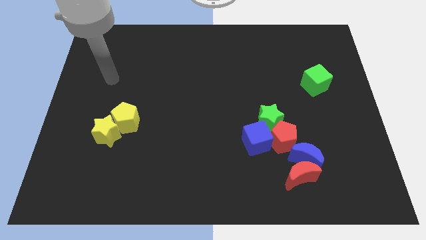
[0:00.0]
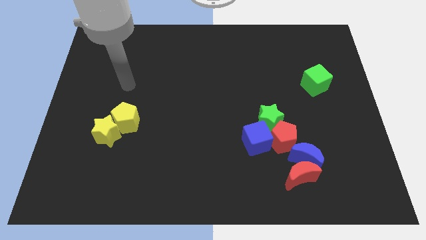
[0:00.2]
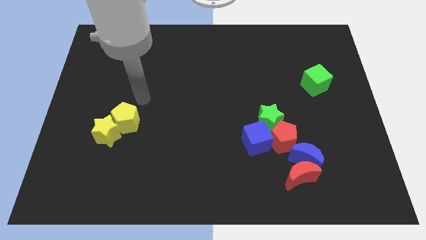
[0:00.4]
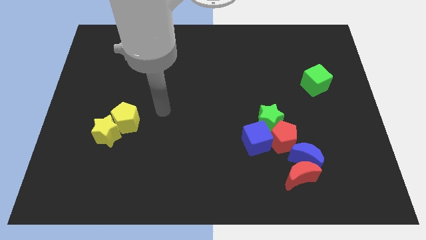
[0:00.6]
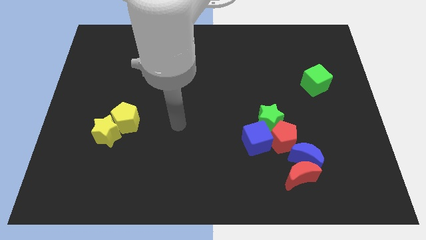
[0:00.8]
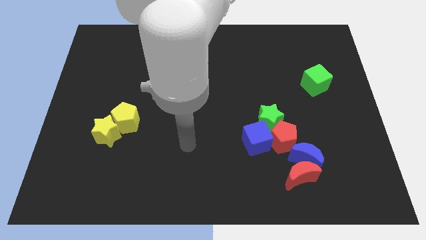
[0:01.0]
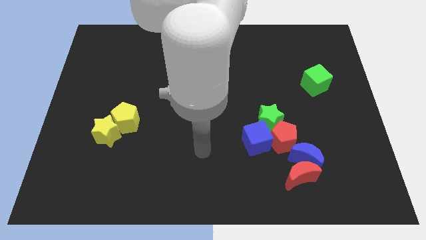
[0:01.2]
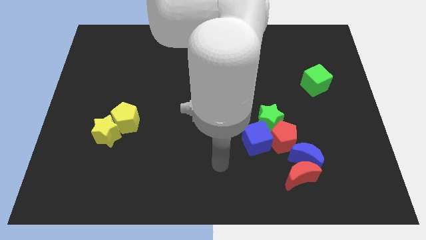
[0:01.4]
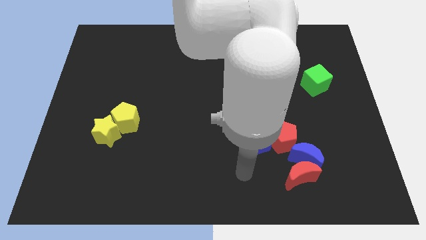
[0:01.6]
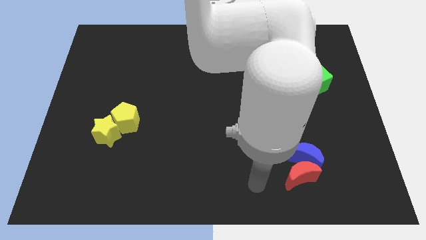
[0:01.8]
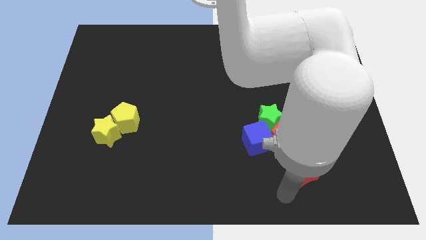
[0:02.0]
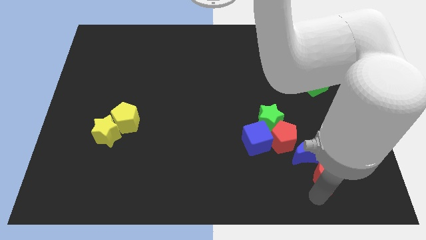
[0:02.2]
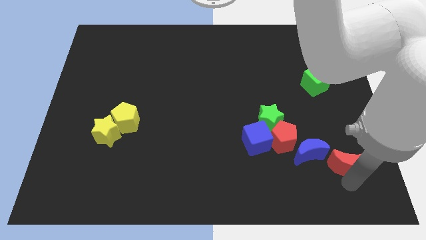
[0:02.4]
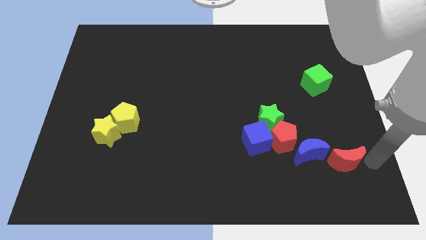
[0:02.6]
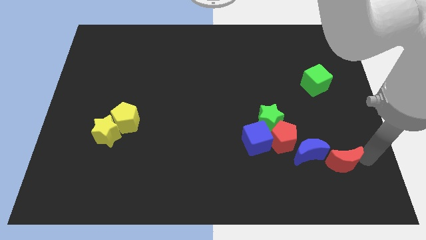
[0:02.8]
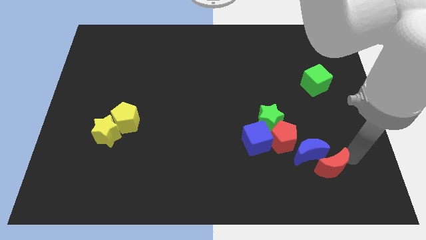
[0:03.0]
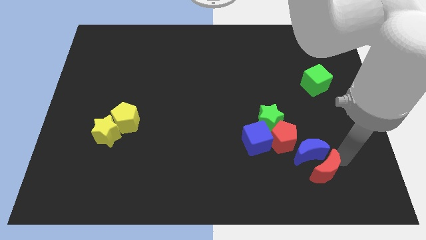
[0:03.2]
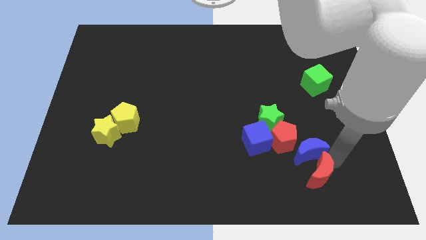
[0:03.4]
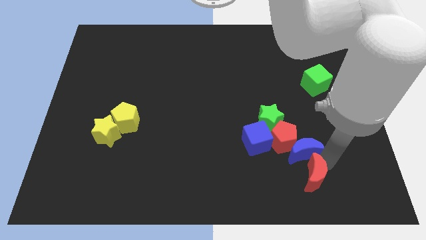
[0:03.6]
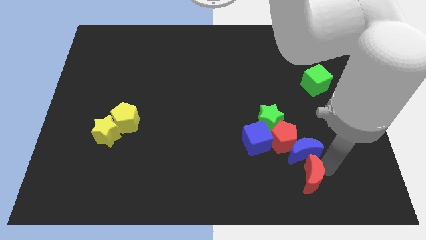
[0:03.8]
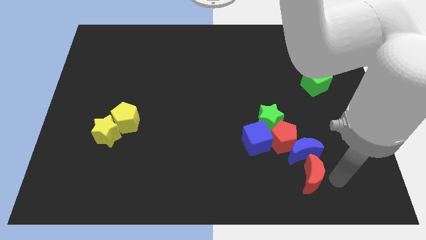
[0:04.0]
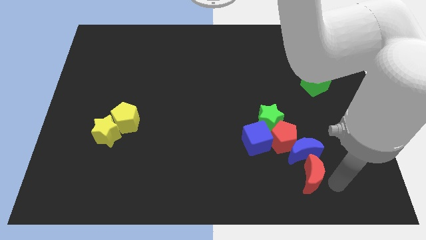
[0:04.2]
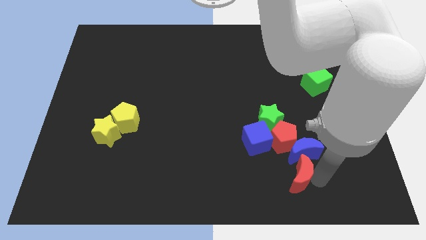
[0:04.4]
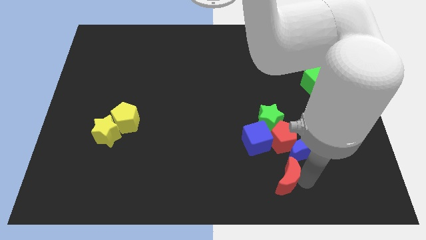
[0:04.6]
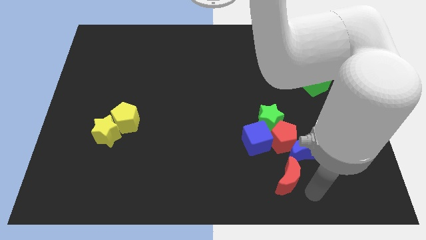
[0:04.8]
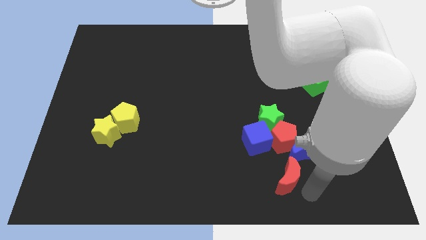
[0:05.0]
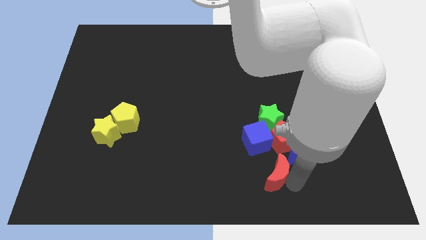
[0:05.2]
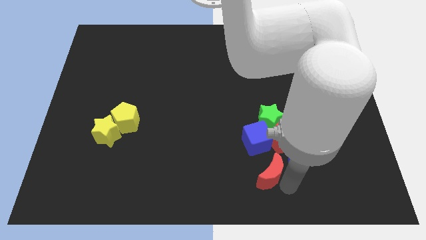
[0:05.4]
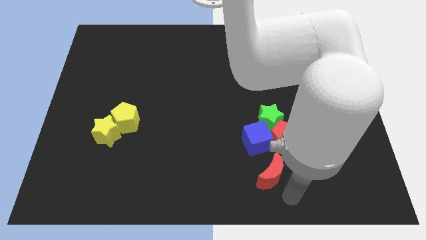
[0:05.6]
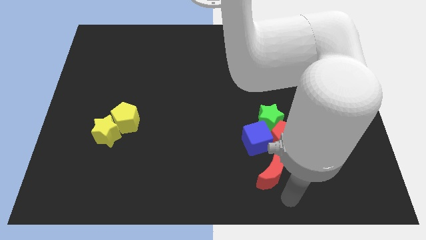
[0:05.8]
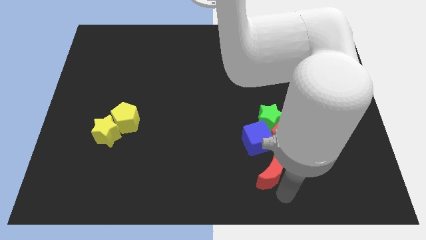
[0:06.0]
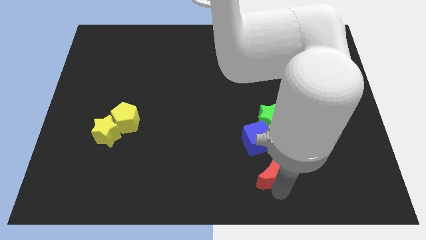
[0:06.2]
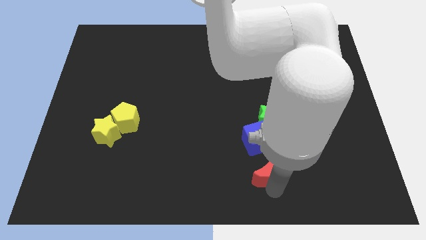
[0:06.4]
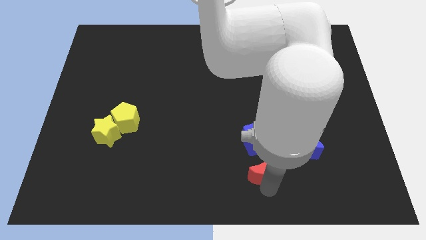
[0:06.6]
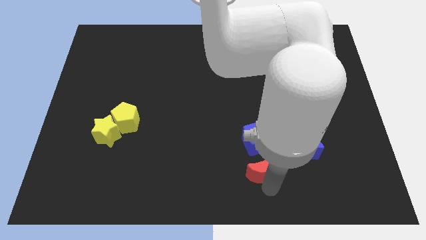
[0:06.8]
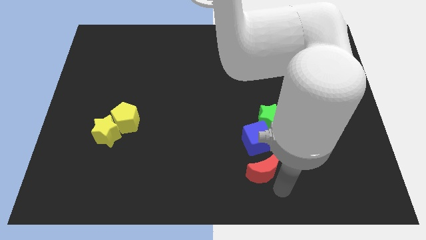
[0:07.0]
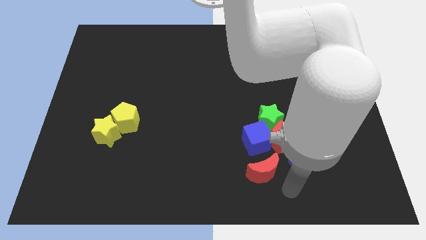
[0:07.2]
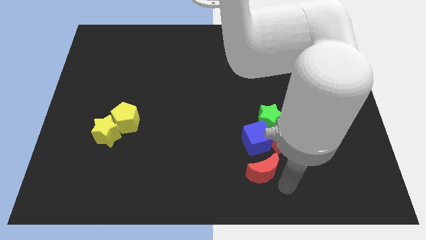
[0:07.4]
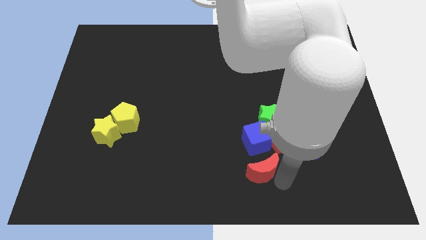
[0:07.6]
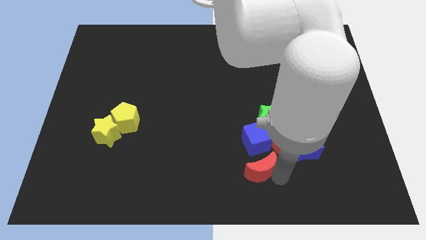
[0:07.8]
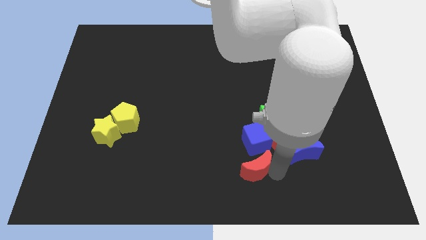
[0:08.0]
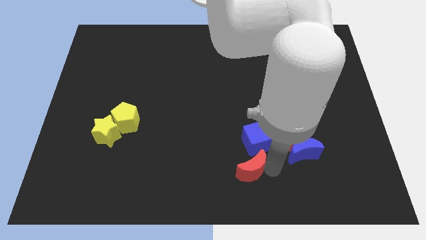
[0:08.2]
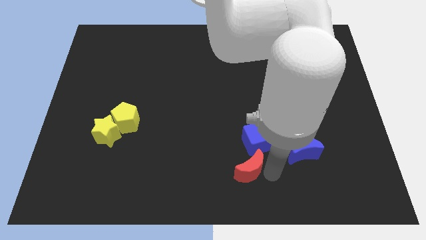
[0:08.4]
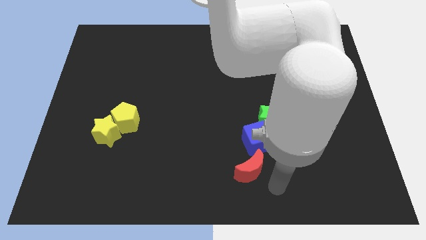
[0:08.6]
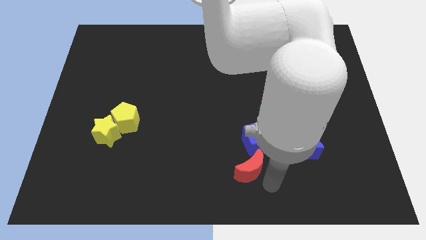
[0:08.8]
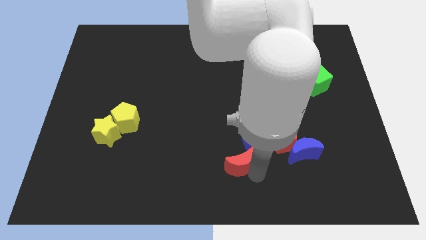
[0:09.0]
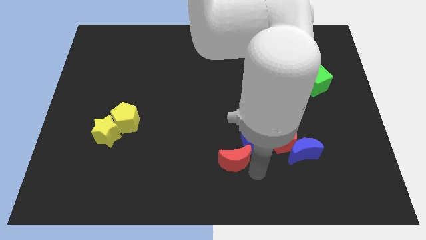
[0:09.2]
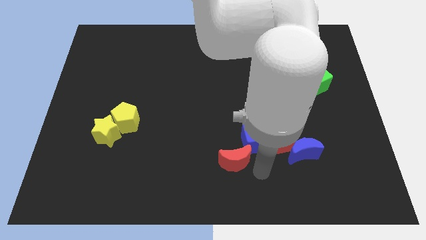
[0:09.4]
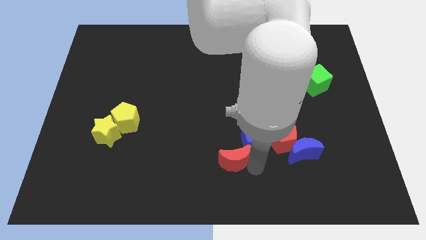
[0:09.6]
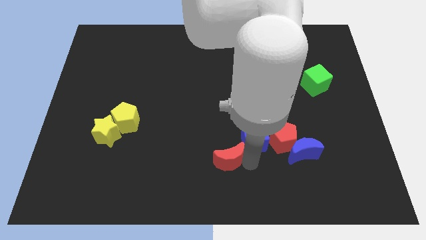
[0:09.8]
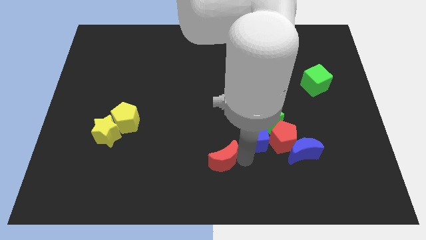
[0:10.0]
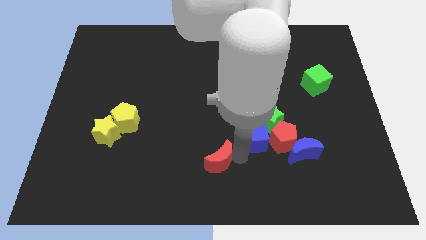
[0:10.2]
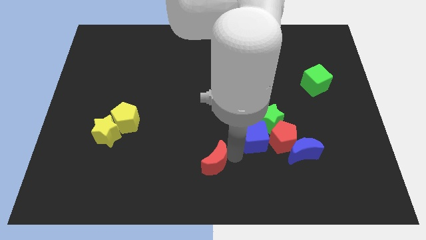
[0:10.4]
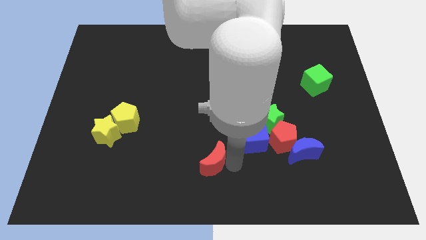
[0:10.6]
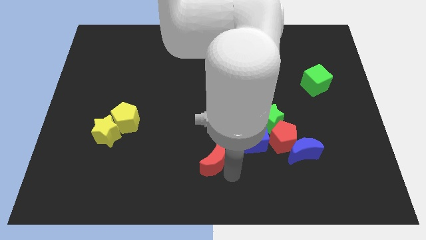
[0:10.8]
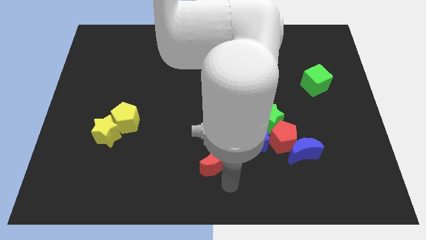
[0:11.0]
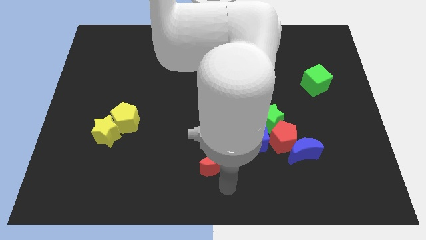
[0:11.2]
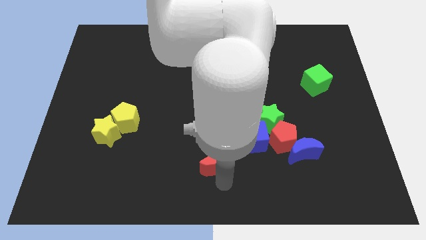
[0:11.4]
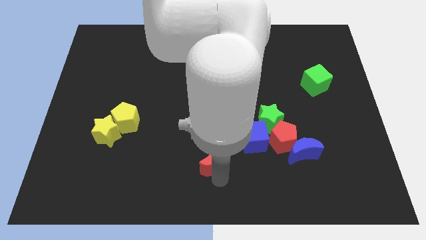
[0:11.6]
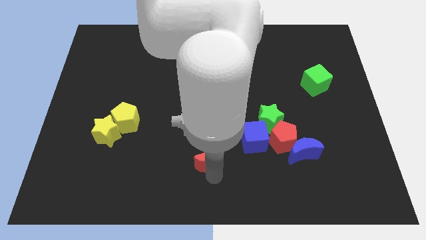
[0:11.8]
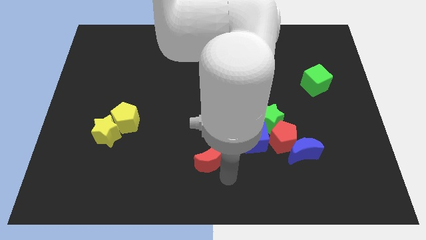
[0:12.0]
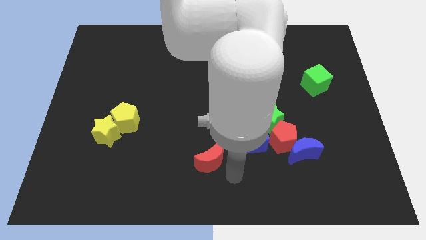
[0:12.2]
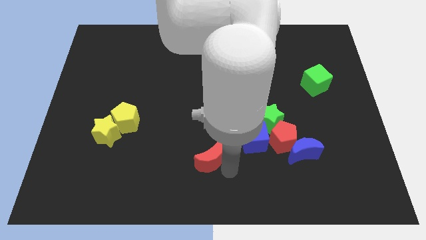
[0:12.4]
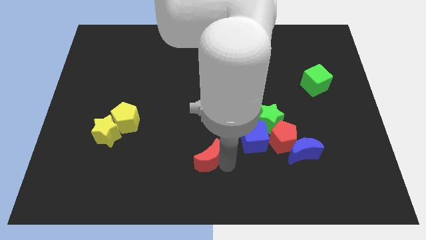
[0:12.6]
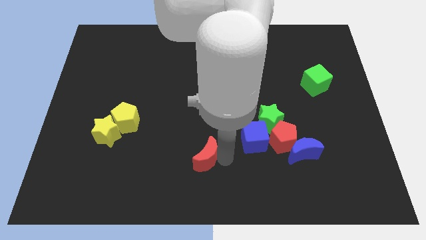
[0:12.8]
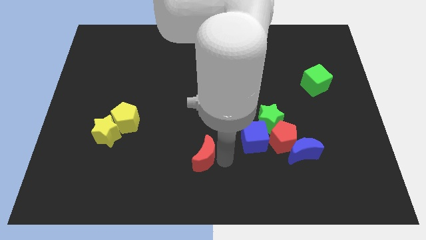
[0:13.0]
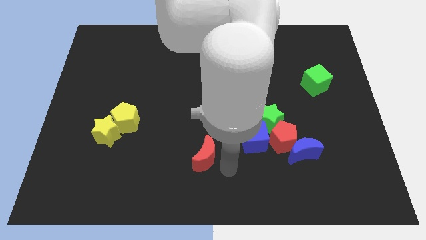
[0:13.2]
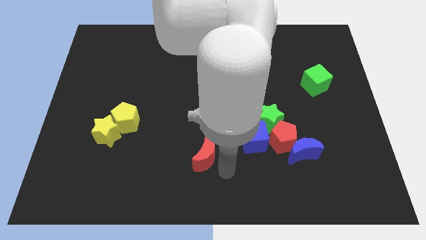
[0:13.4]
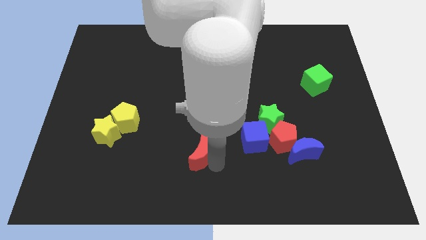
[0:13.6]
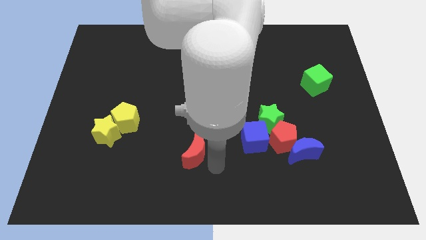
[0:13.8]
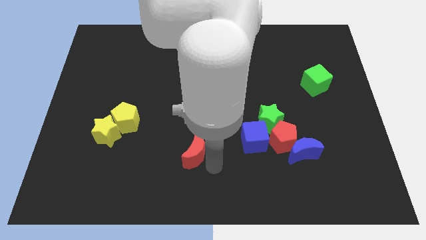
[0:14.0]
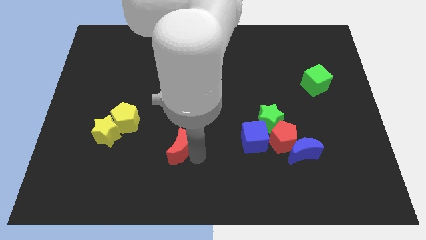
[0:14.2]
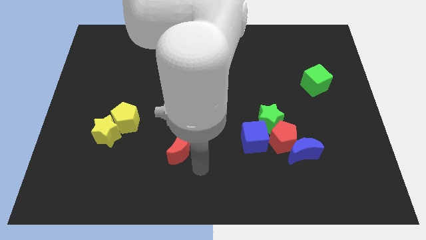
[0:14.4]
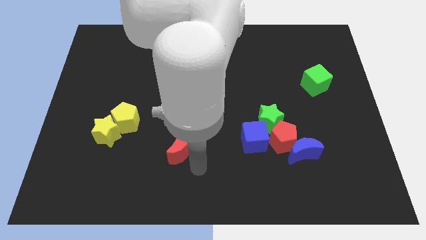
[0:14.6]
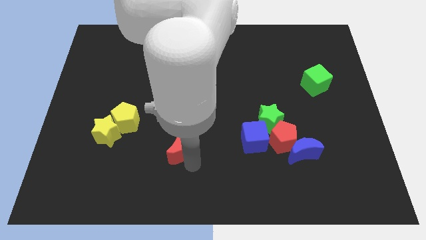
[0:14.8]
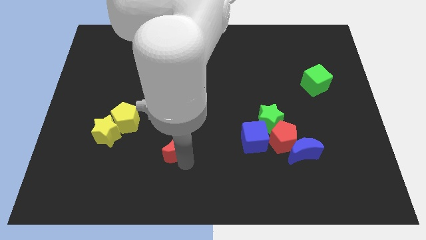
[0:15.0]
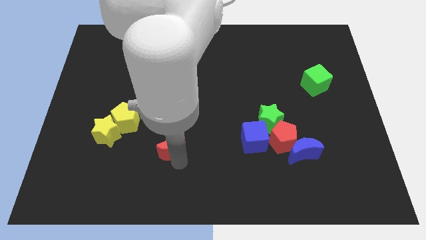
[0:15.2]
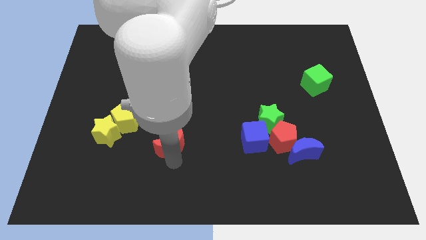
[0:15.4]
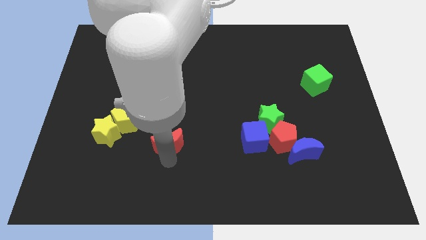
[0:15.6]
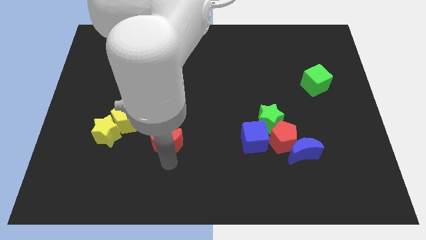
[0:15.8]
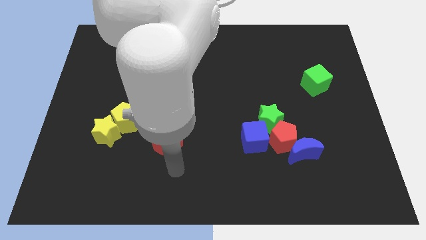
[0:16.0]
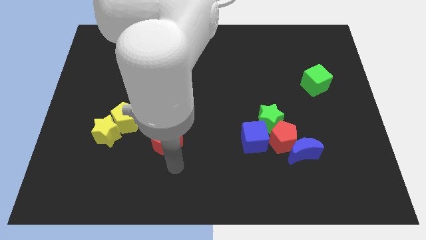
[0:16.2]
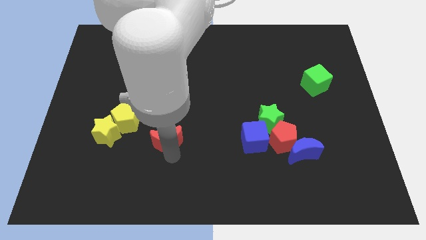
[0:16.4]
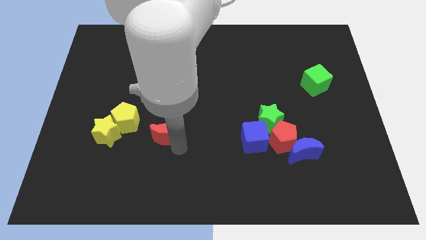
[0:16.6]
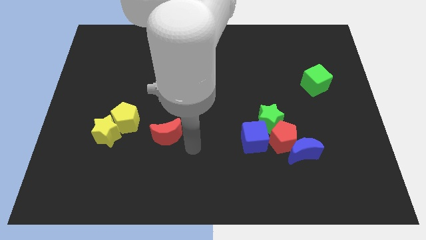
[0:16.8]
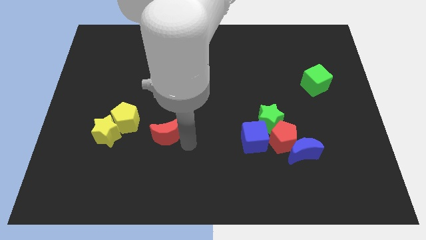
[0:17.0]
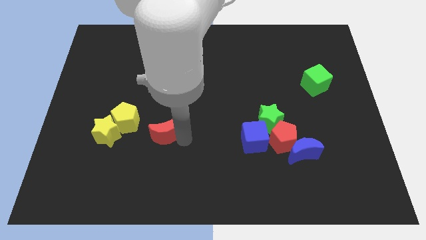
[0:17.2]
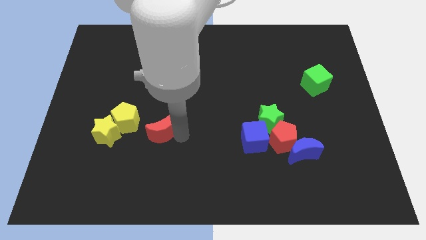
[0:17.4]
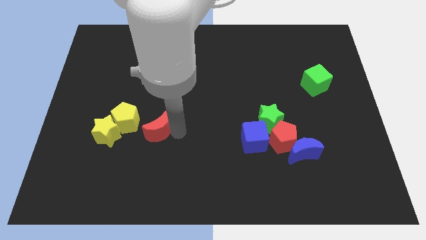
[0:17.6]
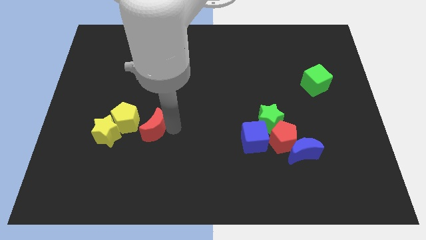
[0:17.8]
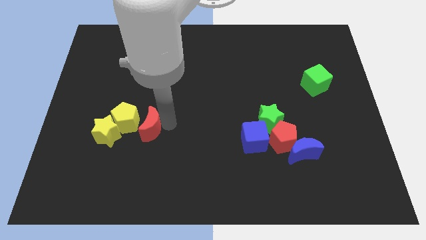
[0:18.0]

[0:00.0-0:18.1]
slide the red moon to the yellow pentagon
